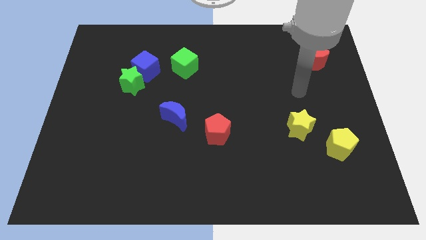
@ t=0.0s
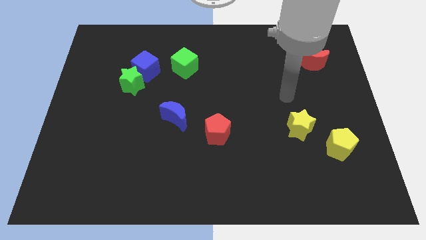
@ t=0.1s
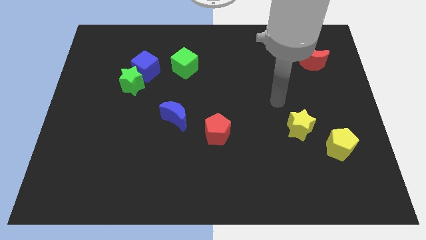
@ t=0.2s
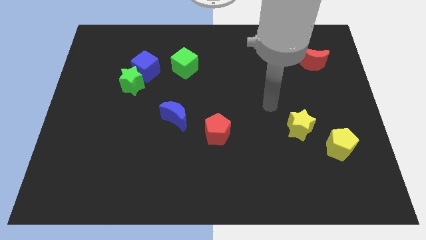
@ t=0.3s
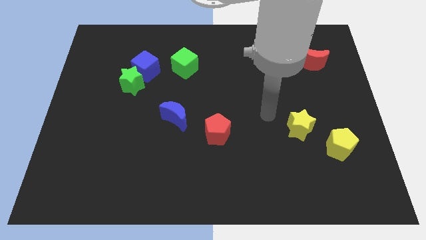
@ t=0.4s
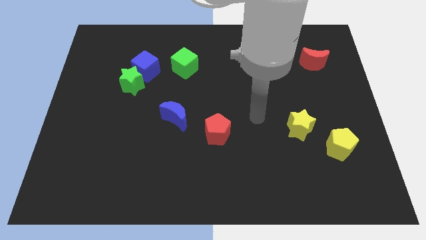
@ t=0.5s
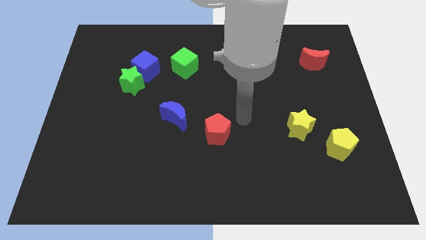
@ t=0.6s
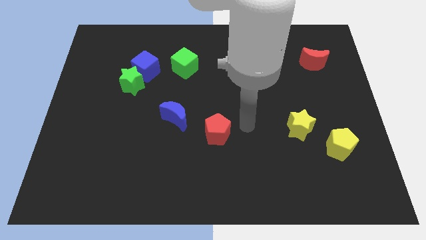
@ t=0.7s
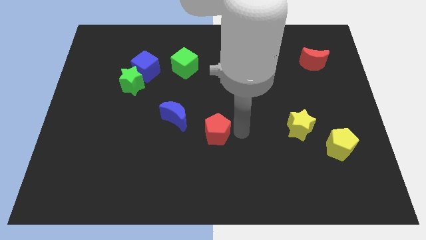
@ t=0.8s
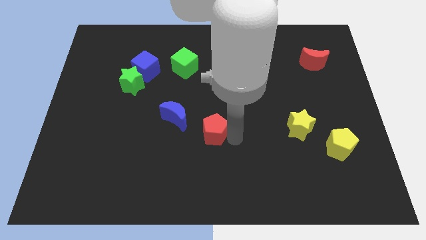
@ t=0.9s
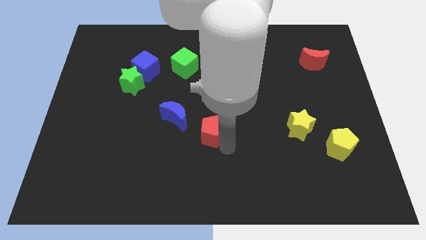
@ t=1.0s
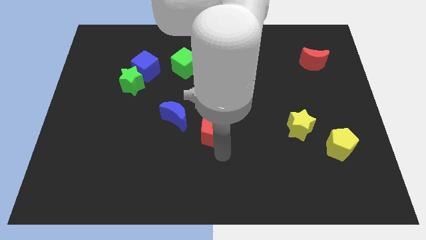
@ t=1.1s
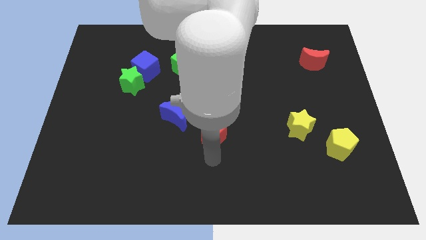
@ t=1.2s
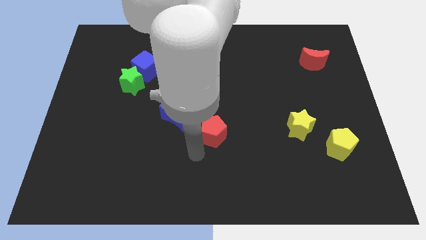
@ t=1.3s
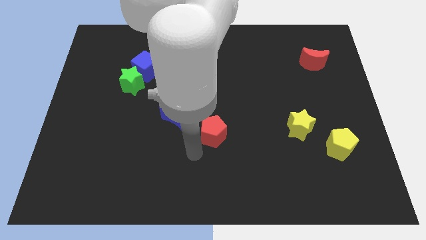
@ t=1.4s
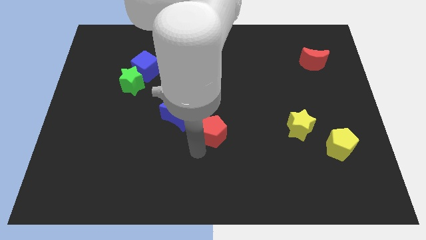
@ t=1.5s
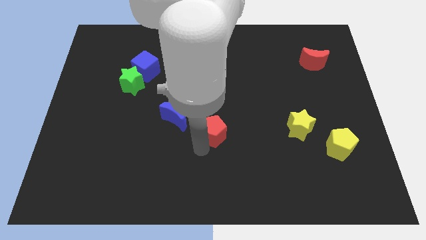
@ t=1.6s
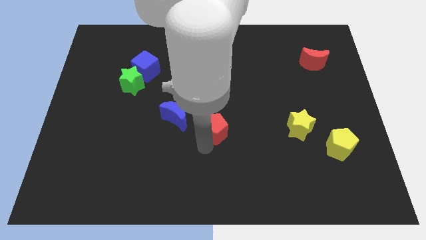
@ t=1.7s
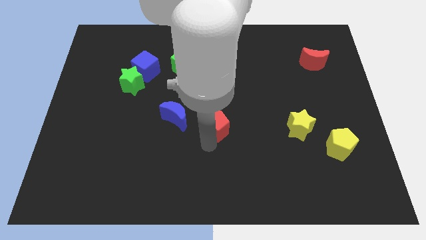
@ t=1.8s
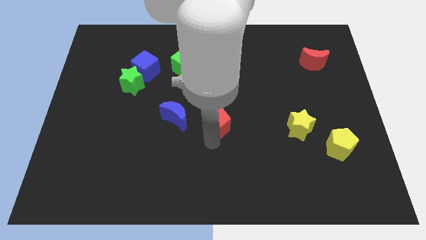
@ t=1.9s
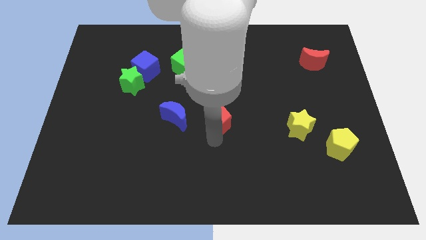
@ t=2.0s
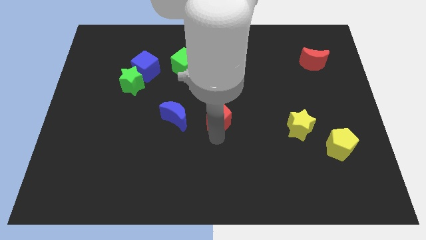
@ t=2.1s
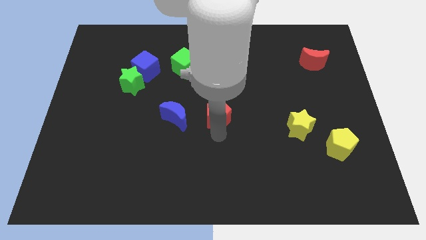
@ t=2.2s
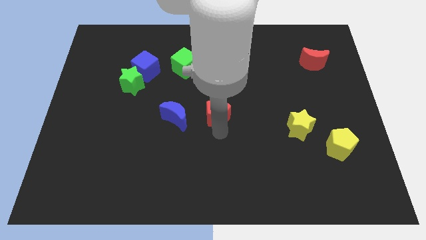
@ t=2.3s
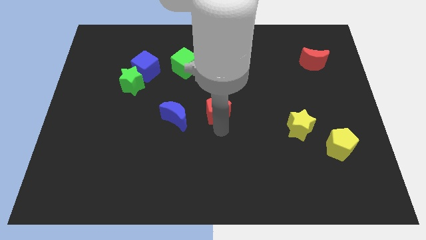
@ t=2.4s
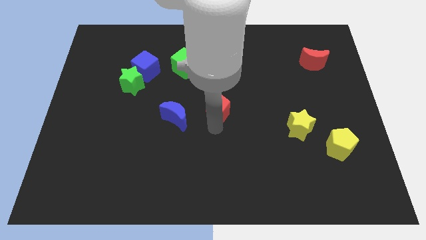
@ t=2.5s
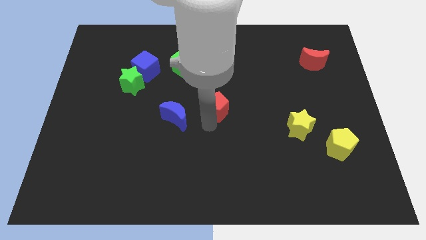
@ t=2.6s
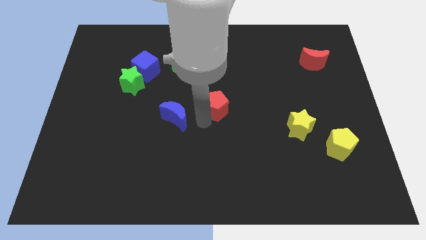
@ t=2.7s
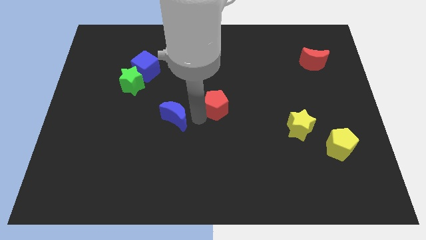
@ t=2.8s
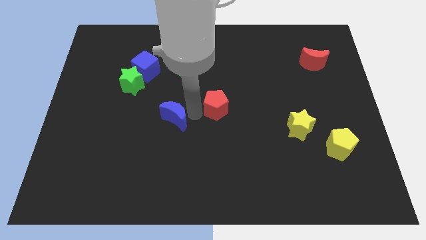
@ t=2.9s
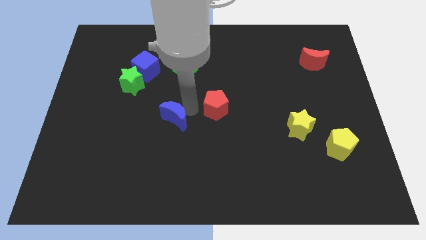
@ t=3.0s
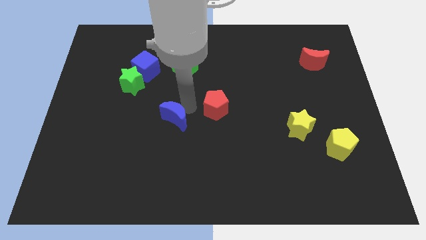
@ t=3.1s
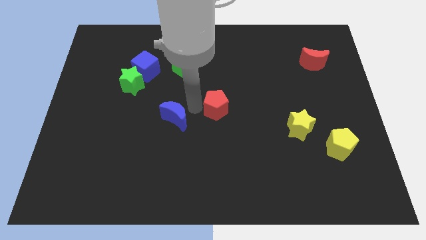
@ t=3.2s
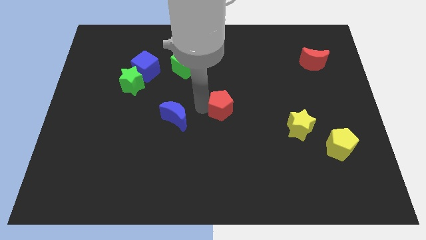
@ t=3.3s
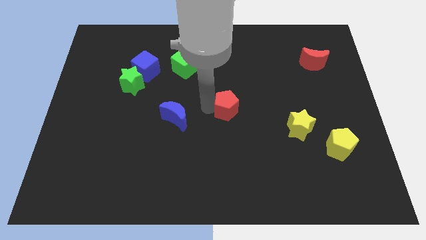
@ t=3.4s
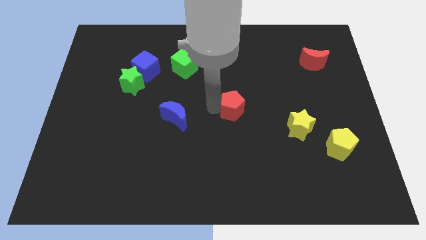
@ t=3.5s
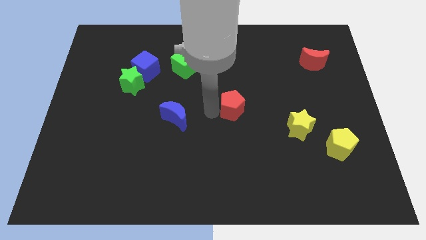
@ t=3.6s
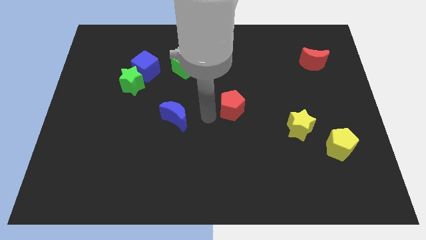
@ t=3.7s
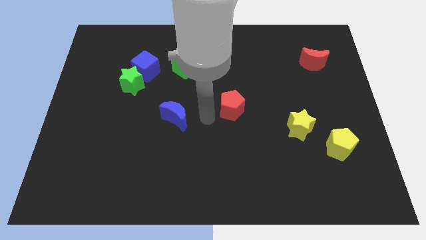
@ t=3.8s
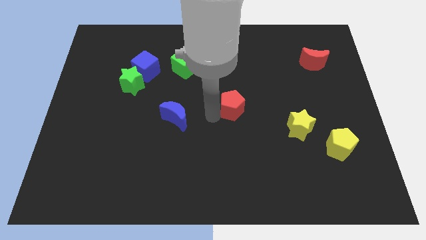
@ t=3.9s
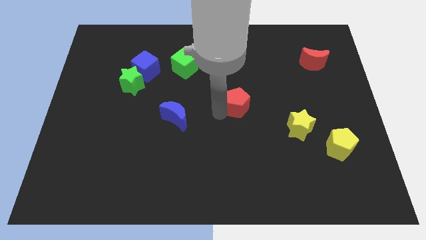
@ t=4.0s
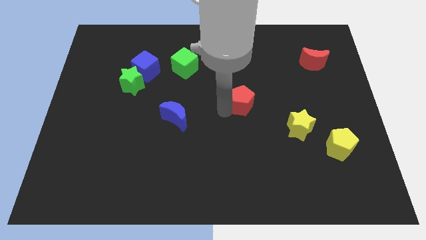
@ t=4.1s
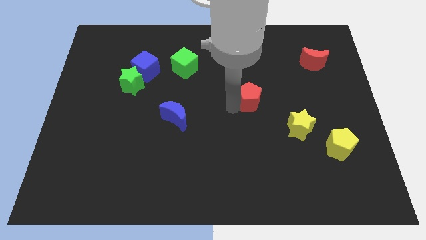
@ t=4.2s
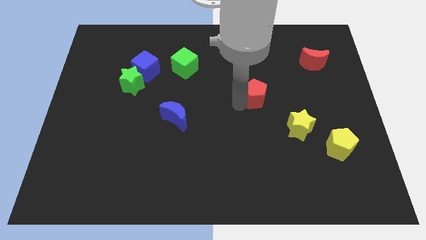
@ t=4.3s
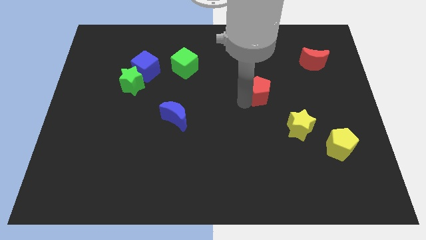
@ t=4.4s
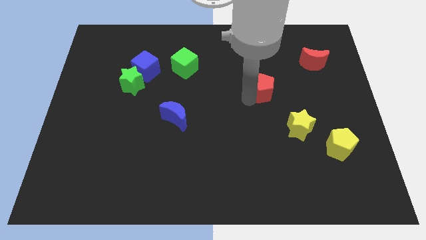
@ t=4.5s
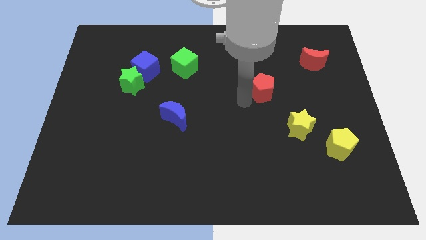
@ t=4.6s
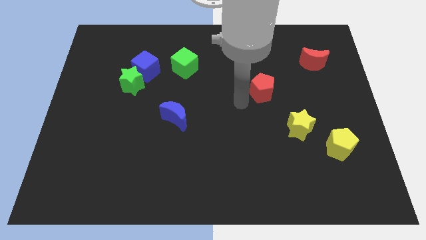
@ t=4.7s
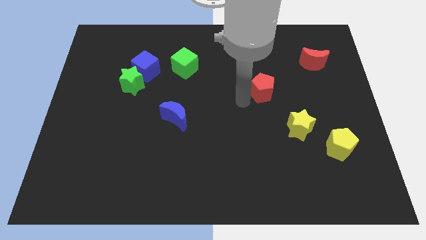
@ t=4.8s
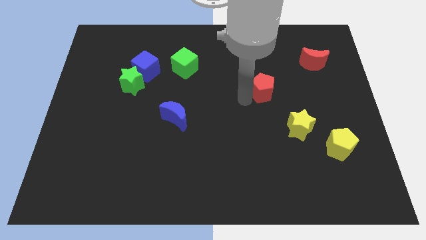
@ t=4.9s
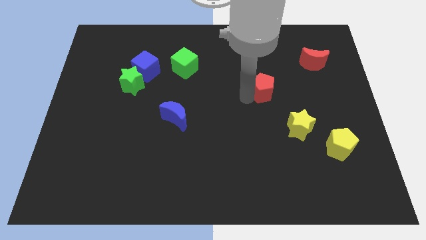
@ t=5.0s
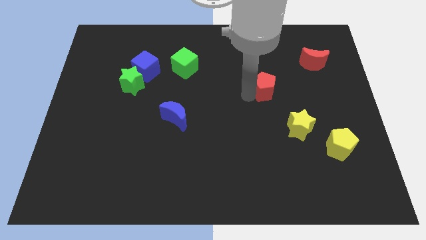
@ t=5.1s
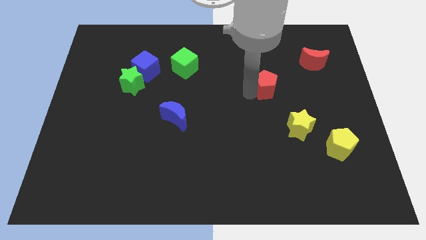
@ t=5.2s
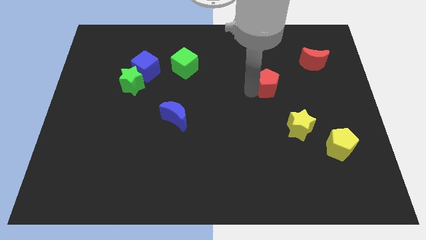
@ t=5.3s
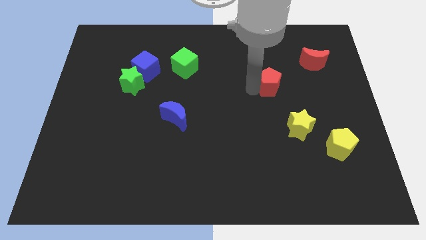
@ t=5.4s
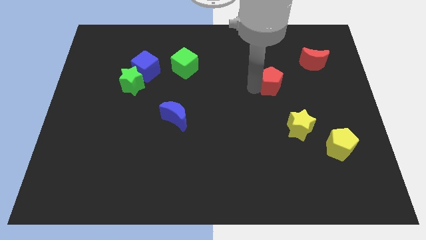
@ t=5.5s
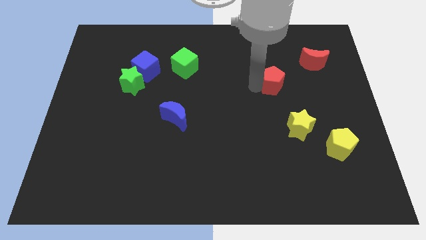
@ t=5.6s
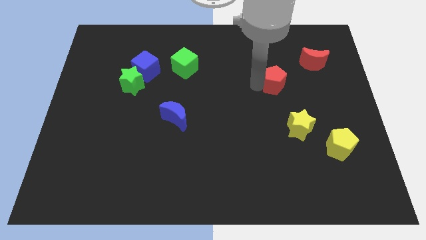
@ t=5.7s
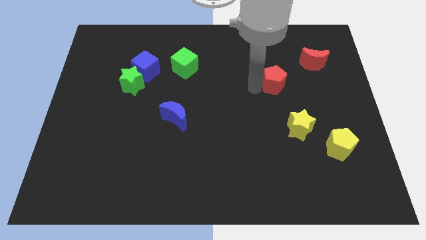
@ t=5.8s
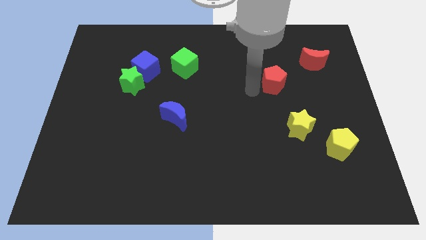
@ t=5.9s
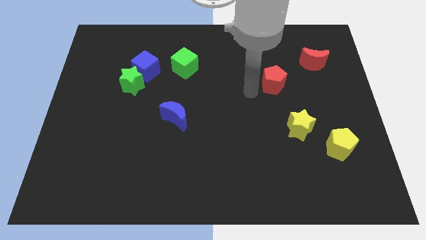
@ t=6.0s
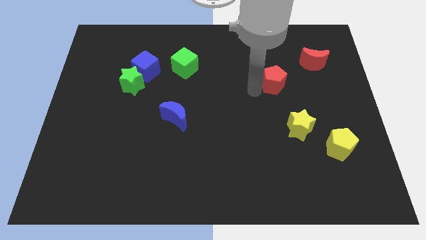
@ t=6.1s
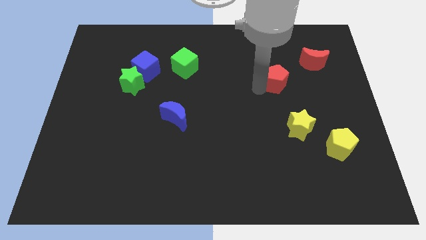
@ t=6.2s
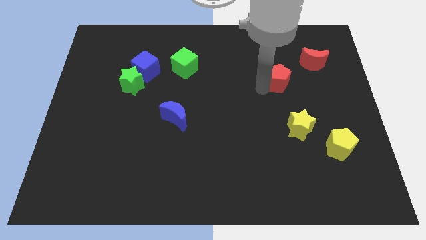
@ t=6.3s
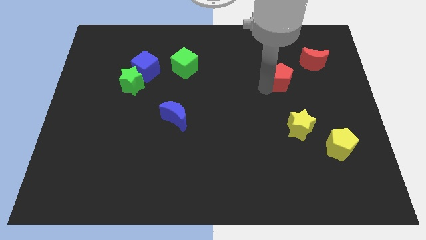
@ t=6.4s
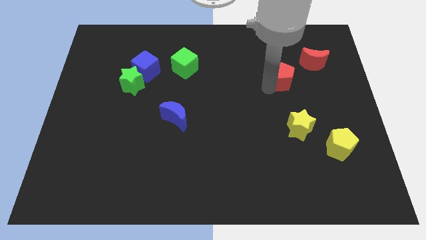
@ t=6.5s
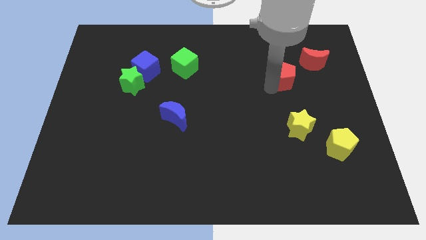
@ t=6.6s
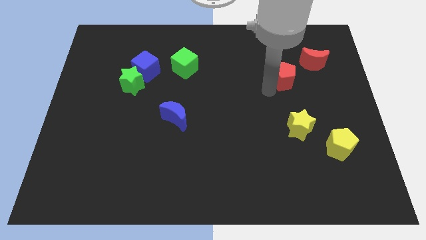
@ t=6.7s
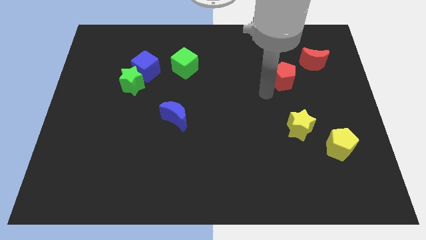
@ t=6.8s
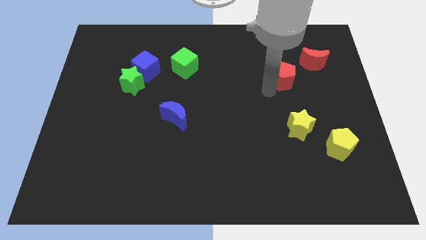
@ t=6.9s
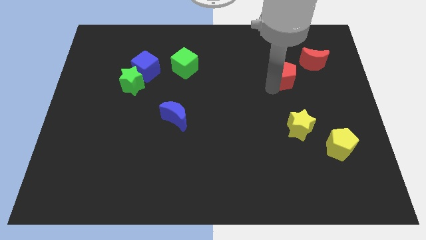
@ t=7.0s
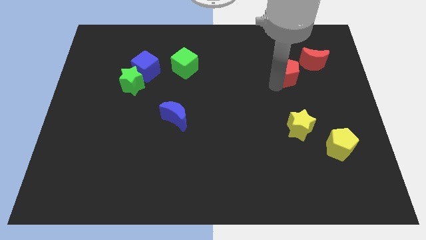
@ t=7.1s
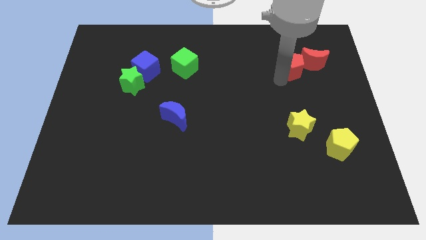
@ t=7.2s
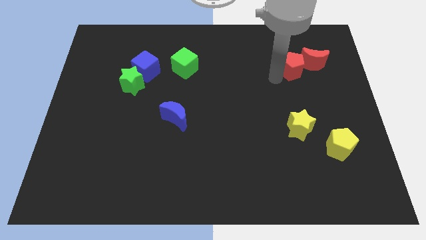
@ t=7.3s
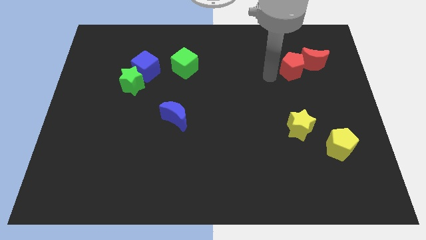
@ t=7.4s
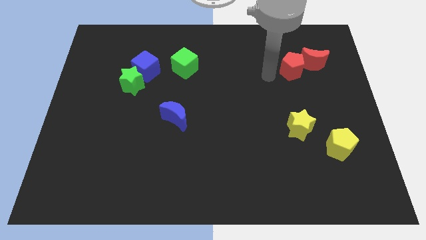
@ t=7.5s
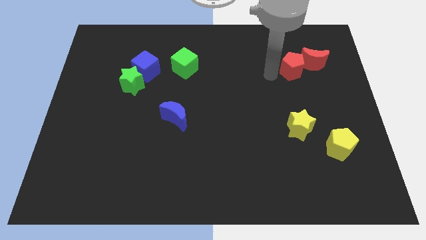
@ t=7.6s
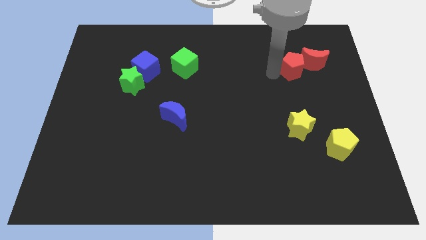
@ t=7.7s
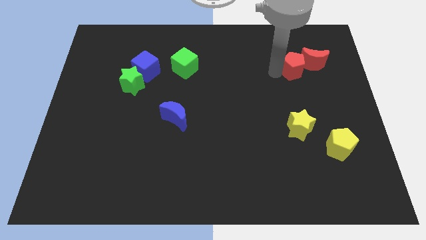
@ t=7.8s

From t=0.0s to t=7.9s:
put the red pentagon towards the red moon
